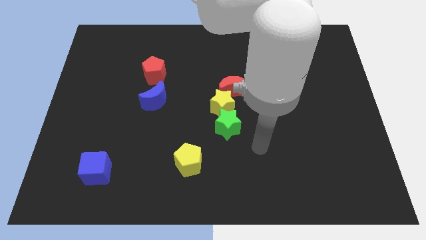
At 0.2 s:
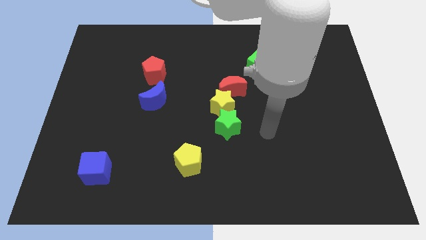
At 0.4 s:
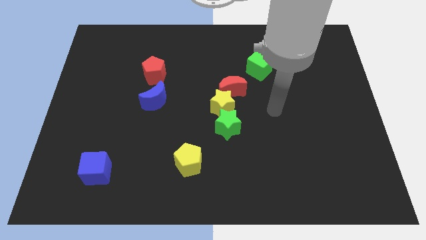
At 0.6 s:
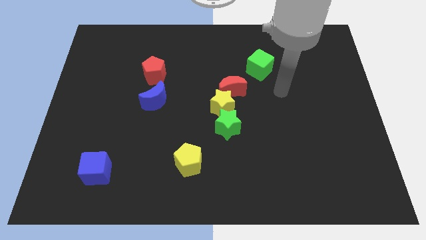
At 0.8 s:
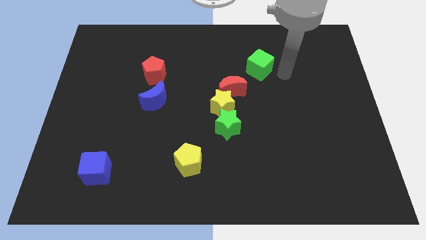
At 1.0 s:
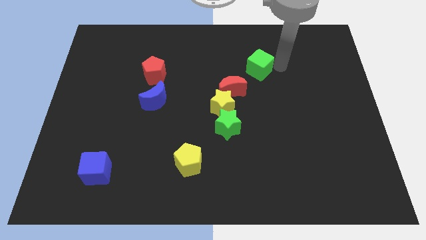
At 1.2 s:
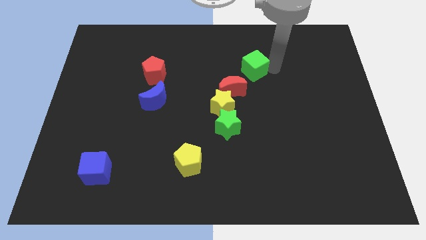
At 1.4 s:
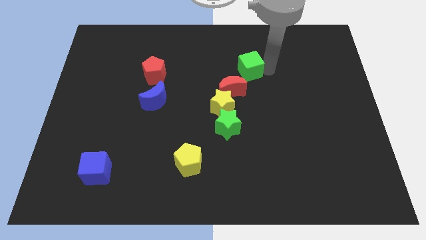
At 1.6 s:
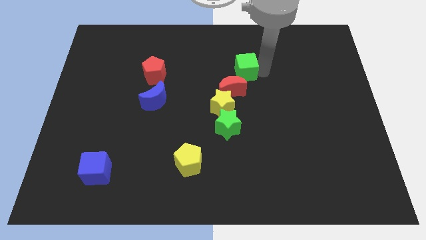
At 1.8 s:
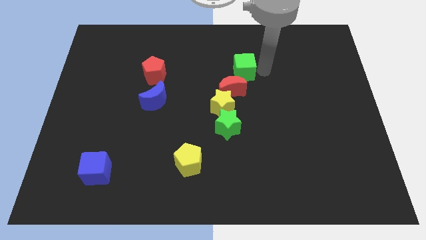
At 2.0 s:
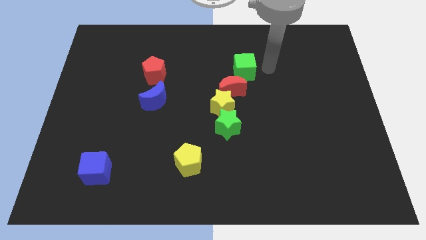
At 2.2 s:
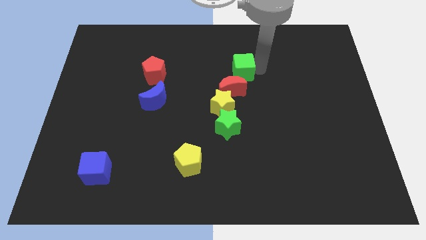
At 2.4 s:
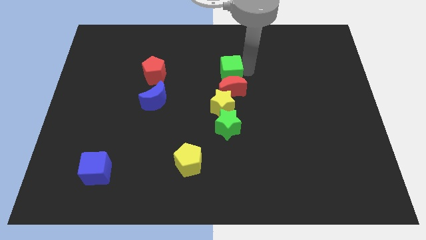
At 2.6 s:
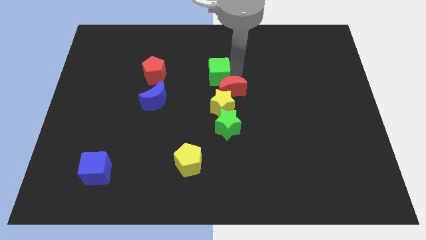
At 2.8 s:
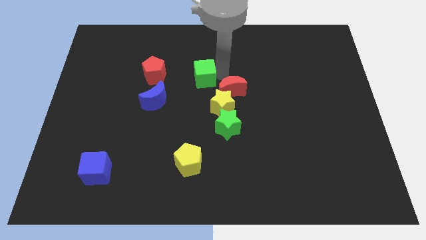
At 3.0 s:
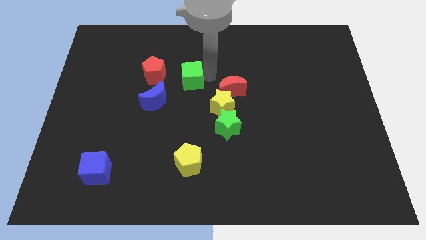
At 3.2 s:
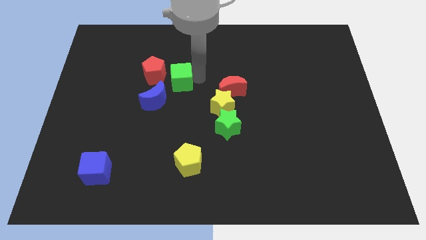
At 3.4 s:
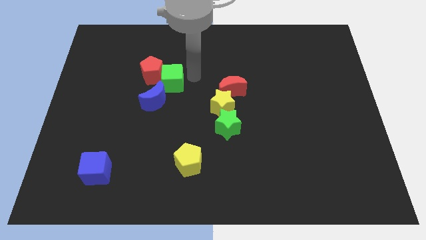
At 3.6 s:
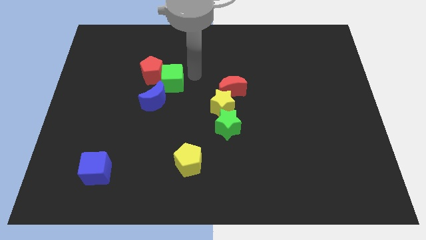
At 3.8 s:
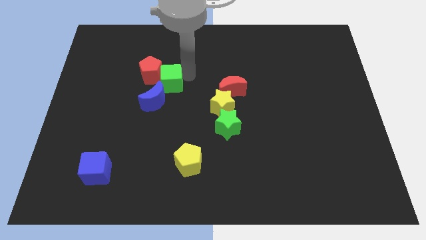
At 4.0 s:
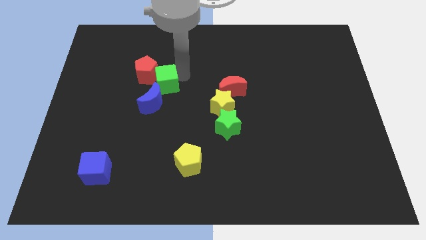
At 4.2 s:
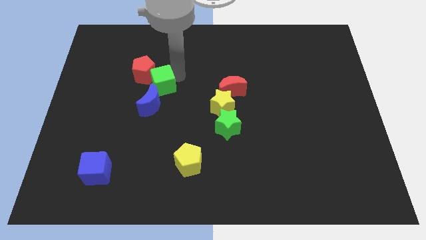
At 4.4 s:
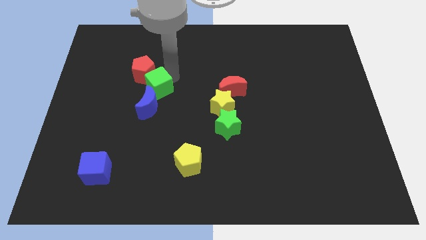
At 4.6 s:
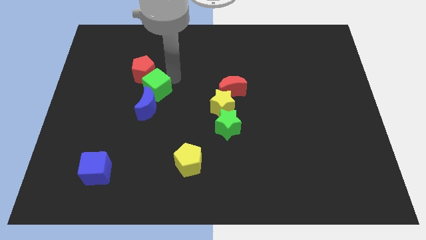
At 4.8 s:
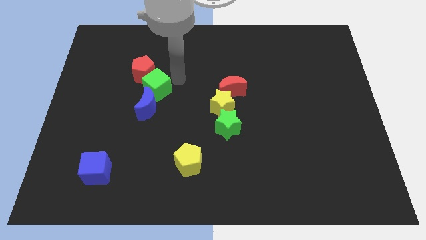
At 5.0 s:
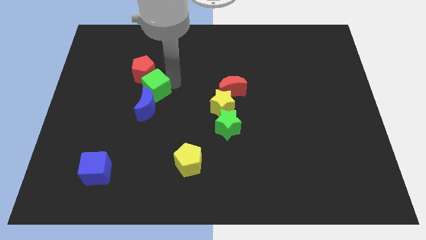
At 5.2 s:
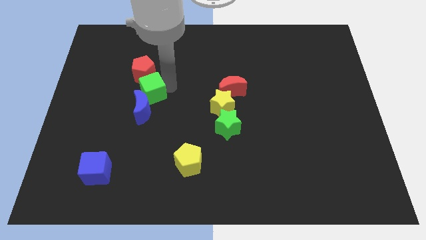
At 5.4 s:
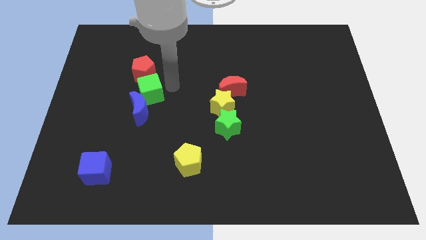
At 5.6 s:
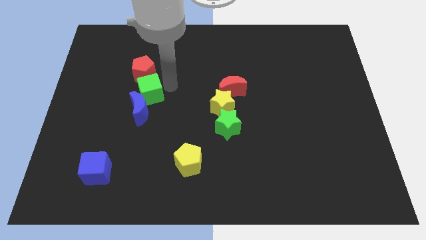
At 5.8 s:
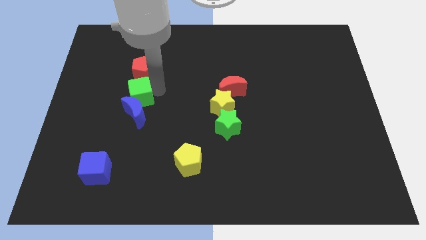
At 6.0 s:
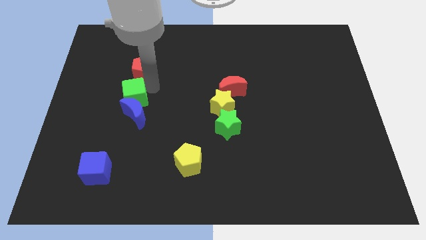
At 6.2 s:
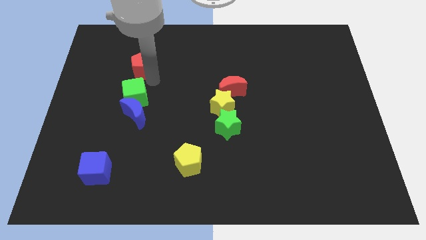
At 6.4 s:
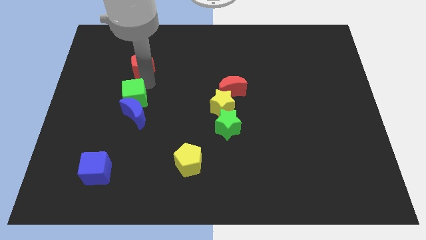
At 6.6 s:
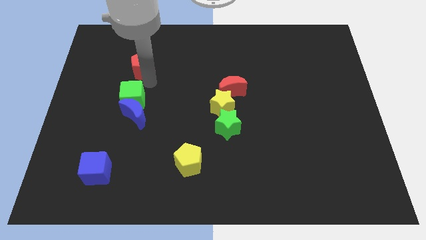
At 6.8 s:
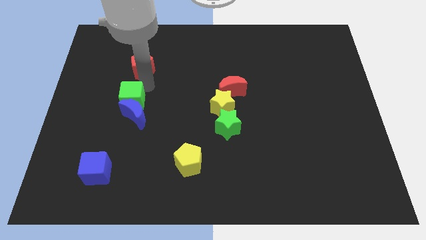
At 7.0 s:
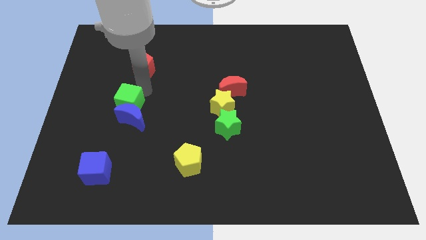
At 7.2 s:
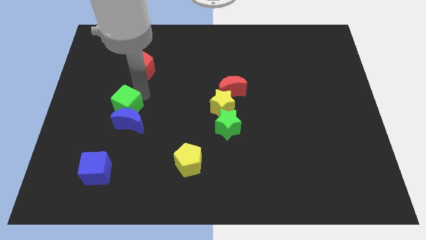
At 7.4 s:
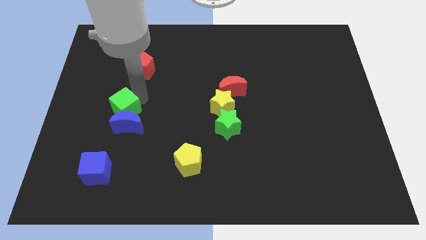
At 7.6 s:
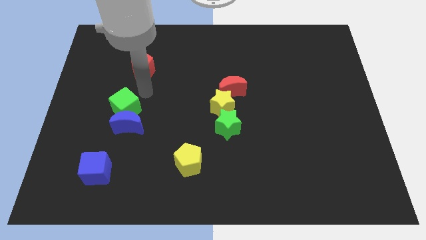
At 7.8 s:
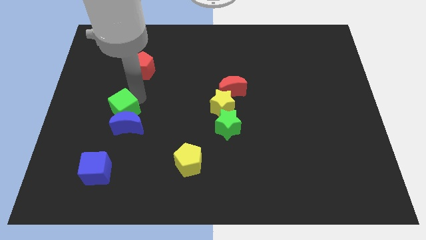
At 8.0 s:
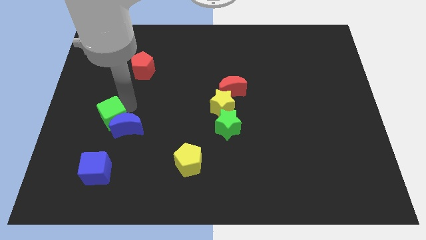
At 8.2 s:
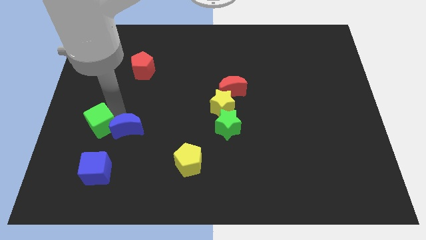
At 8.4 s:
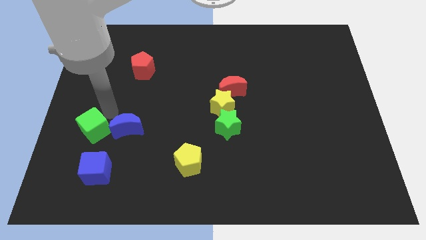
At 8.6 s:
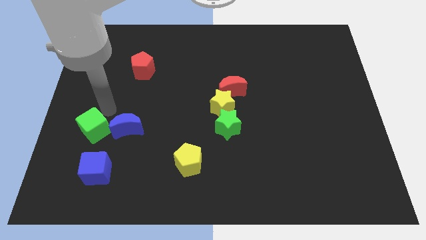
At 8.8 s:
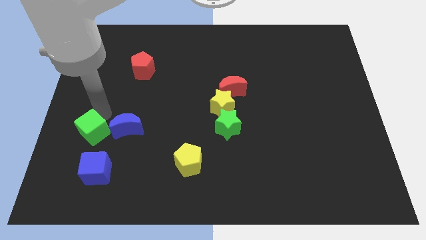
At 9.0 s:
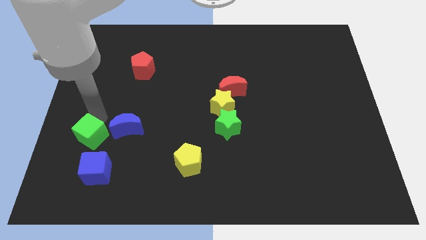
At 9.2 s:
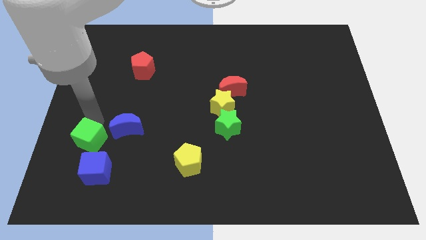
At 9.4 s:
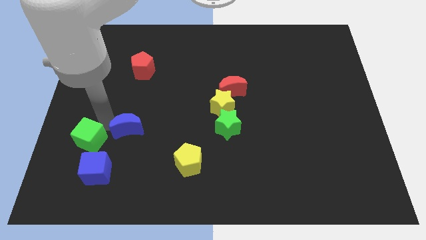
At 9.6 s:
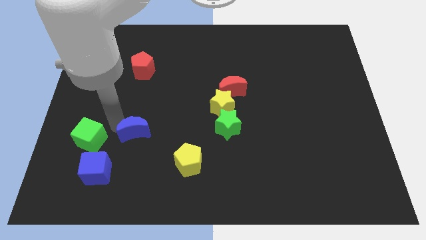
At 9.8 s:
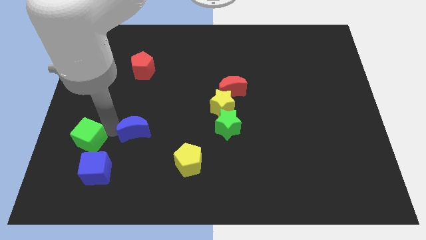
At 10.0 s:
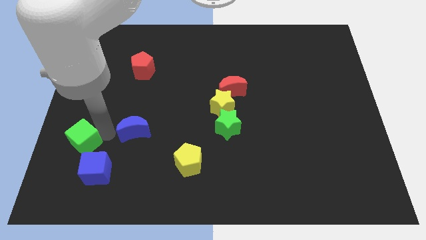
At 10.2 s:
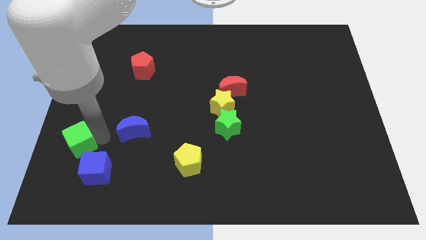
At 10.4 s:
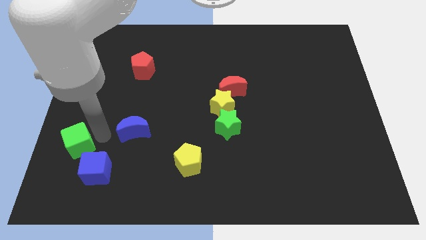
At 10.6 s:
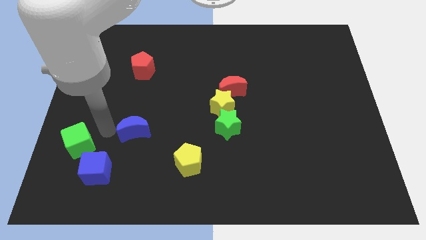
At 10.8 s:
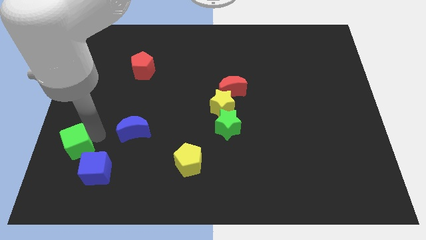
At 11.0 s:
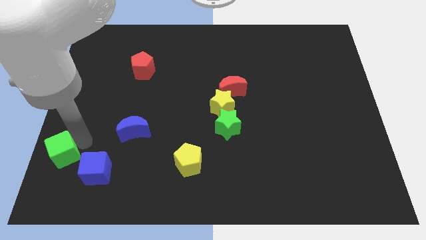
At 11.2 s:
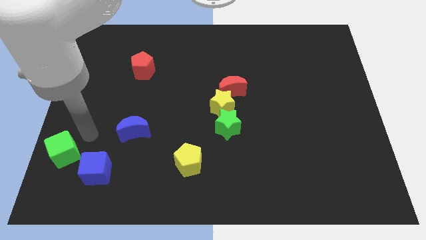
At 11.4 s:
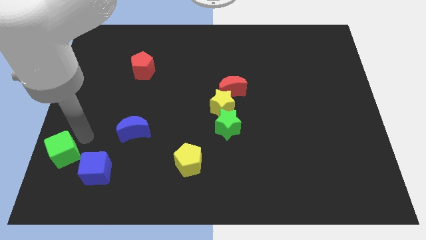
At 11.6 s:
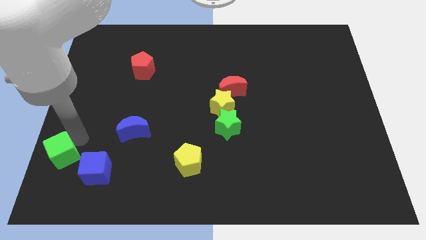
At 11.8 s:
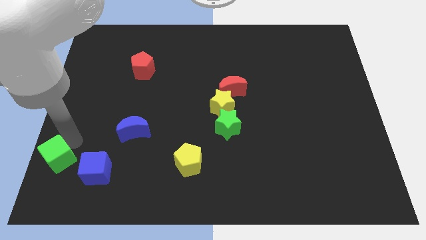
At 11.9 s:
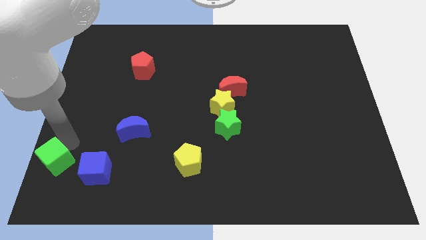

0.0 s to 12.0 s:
slide the green cube to the bottom left

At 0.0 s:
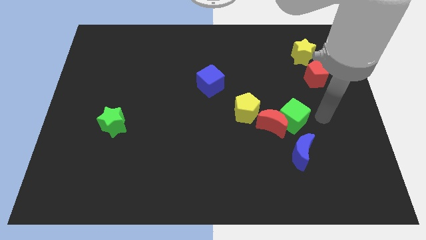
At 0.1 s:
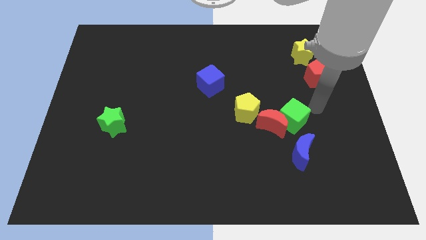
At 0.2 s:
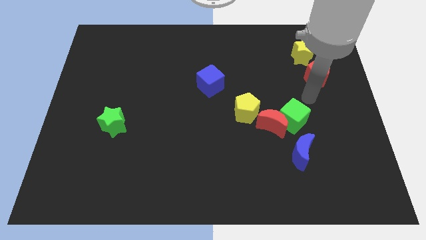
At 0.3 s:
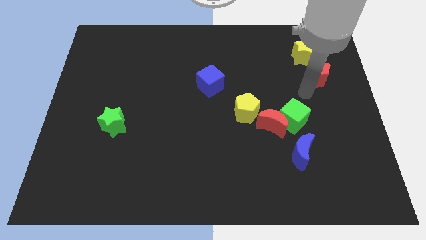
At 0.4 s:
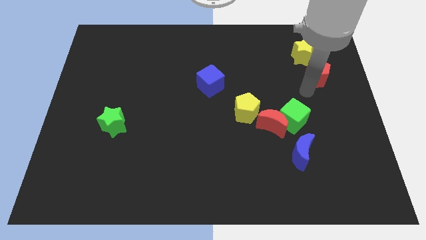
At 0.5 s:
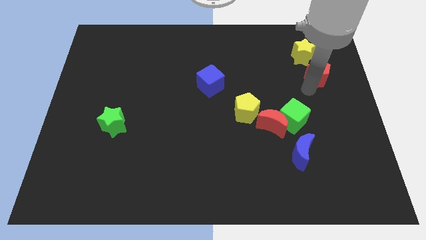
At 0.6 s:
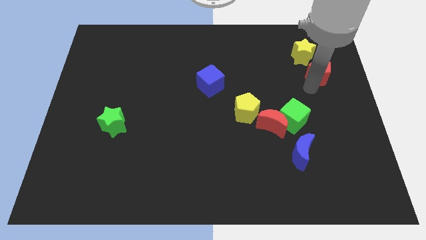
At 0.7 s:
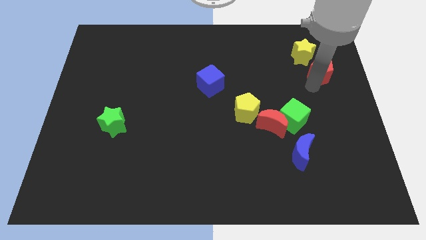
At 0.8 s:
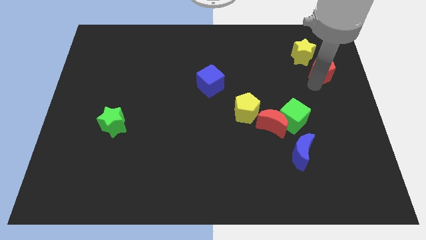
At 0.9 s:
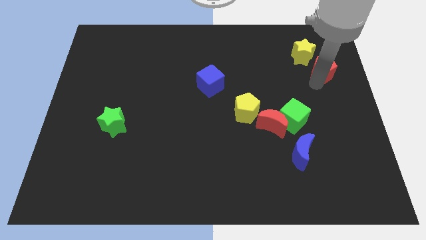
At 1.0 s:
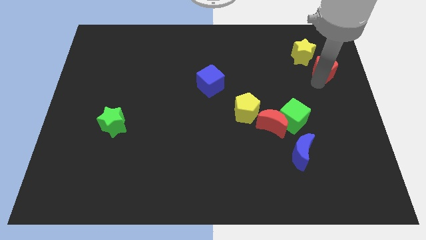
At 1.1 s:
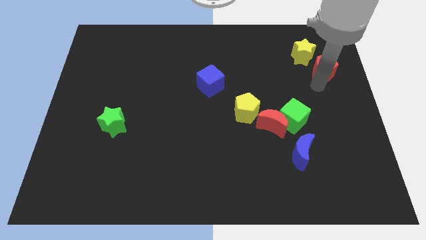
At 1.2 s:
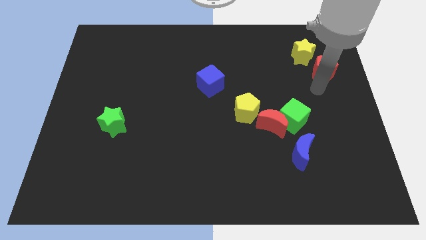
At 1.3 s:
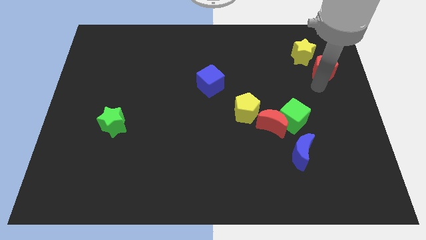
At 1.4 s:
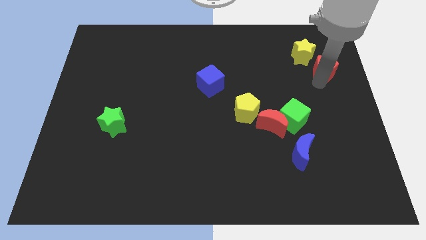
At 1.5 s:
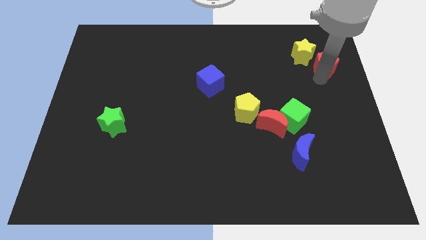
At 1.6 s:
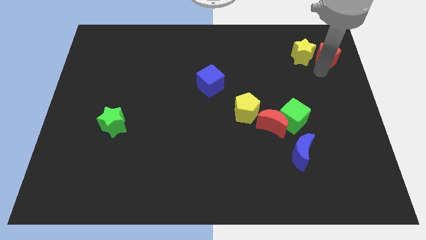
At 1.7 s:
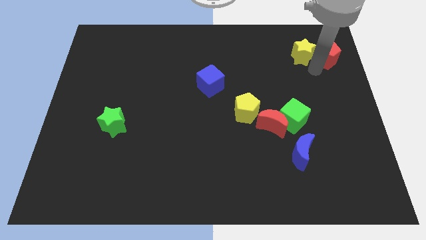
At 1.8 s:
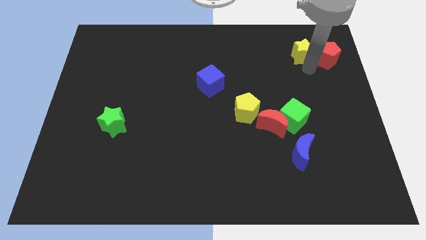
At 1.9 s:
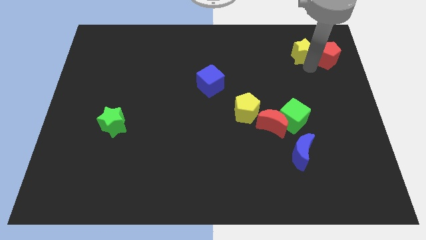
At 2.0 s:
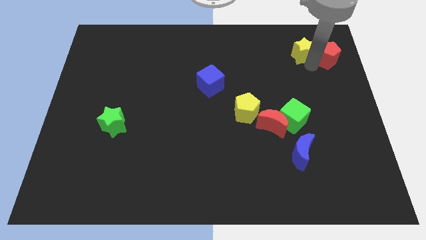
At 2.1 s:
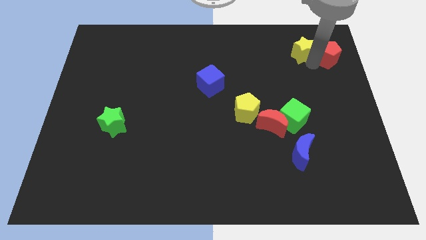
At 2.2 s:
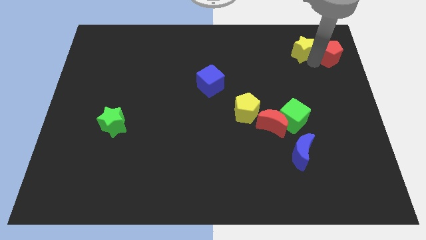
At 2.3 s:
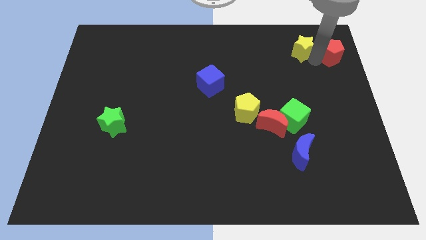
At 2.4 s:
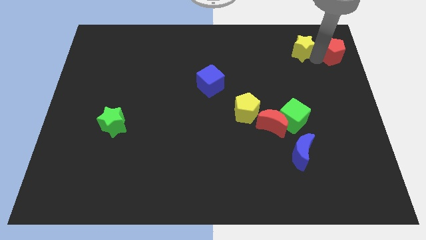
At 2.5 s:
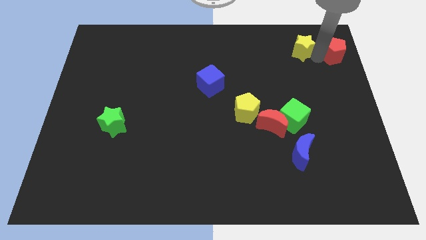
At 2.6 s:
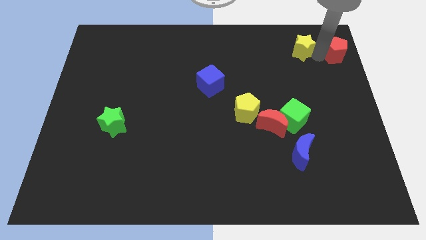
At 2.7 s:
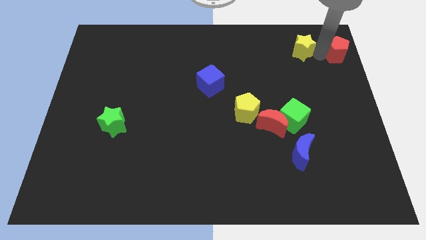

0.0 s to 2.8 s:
put the red pentagon to the top right of the board
